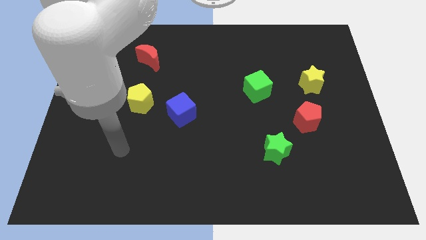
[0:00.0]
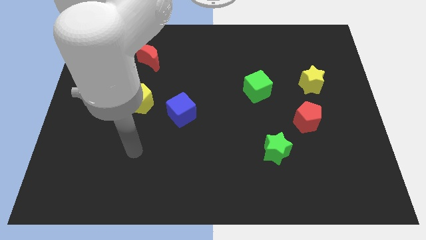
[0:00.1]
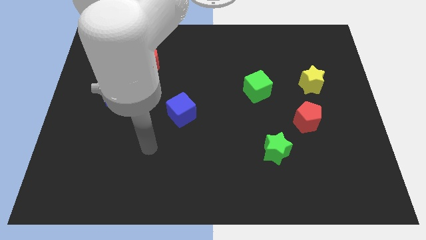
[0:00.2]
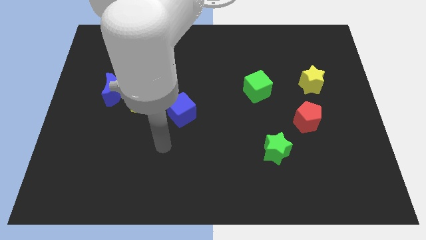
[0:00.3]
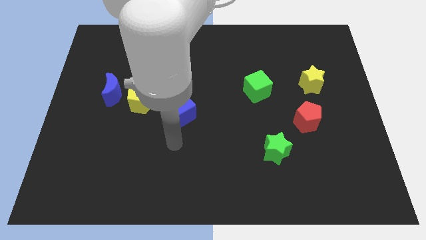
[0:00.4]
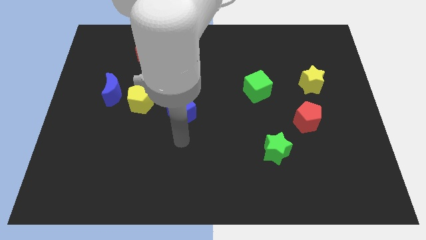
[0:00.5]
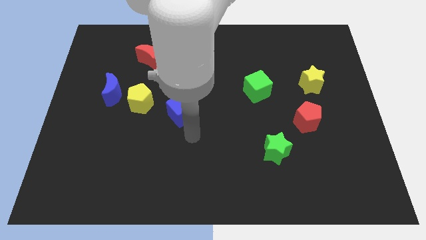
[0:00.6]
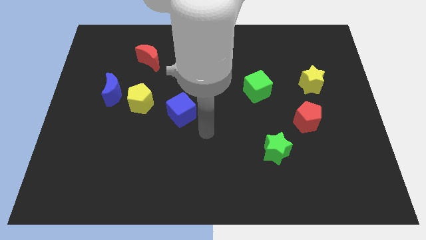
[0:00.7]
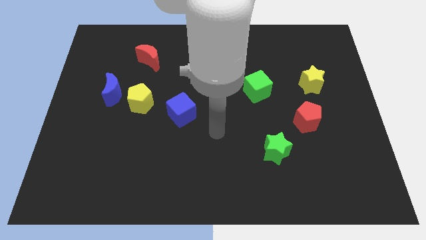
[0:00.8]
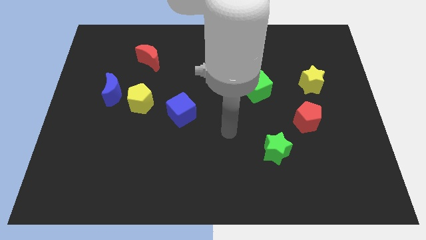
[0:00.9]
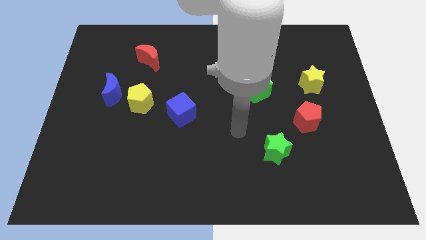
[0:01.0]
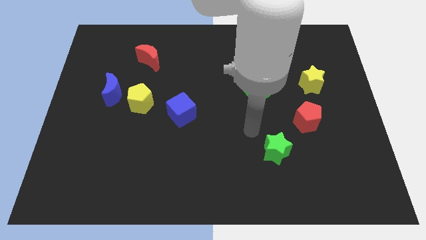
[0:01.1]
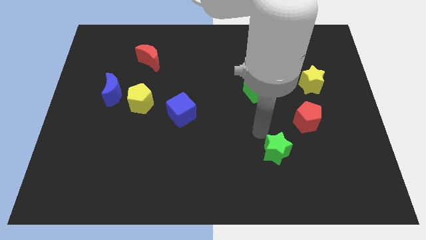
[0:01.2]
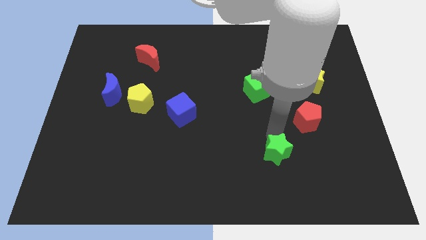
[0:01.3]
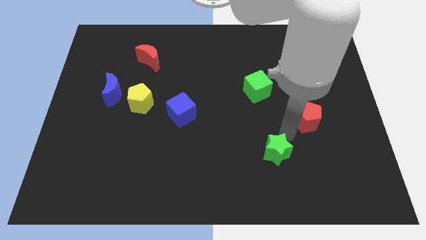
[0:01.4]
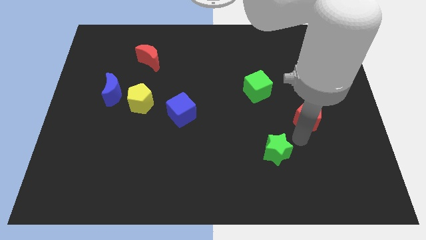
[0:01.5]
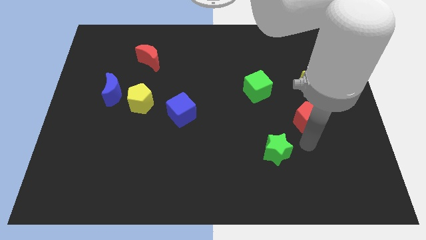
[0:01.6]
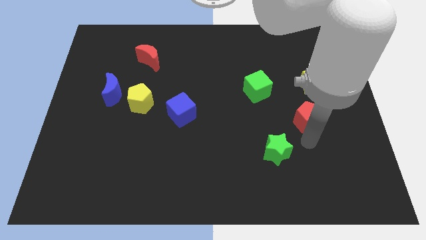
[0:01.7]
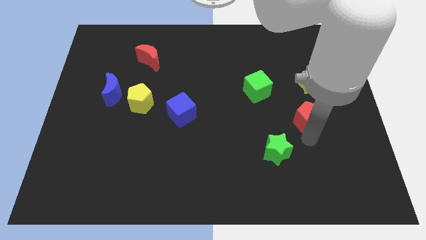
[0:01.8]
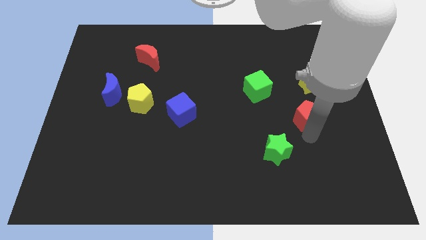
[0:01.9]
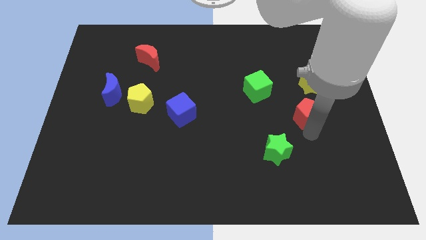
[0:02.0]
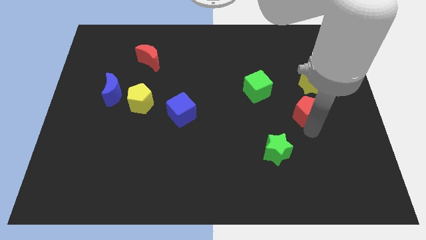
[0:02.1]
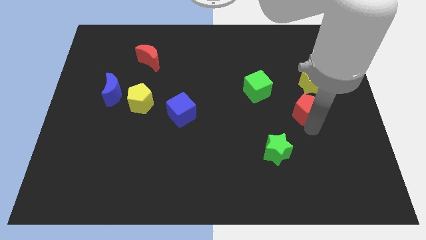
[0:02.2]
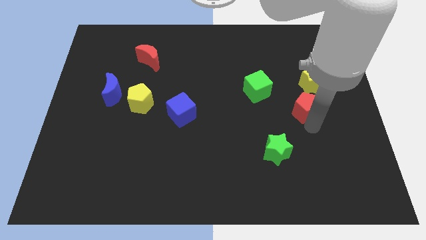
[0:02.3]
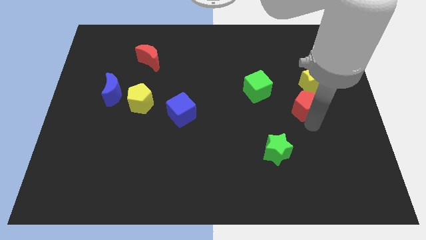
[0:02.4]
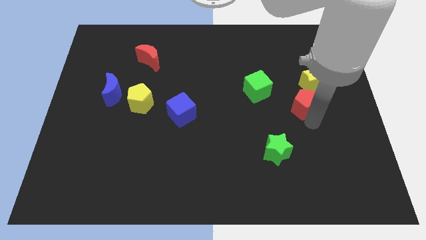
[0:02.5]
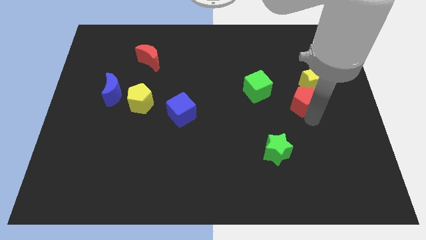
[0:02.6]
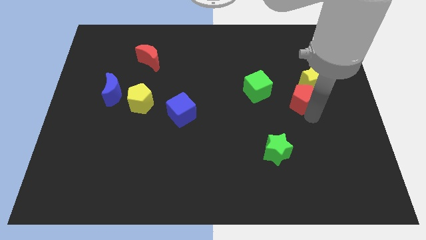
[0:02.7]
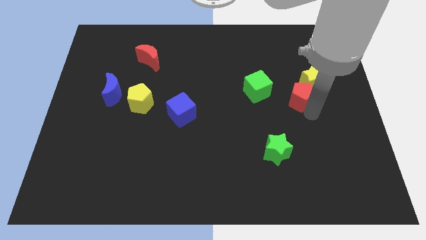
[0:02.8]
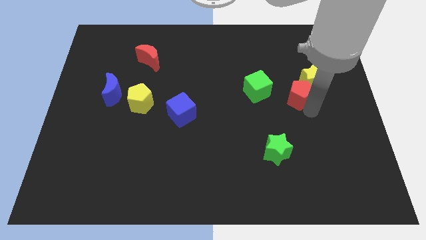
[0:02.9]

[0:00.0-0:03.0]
slightly push the red pentagon upwards

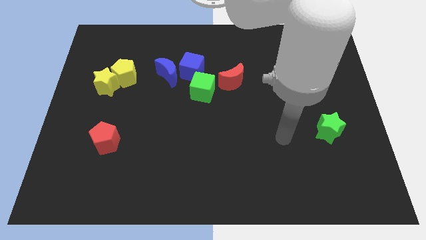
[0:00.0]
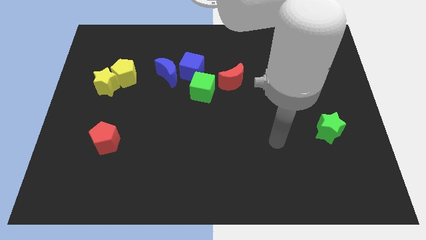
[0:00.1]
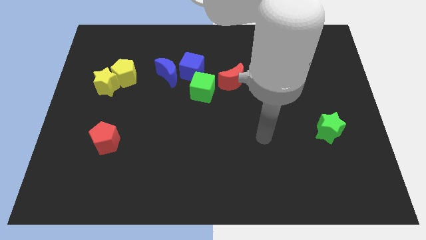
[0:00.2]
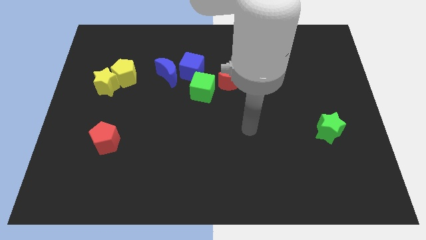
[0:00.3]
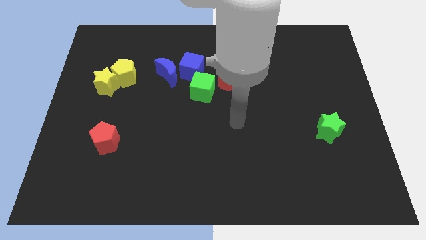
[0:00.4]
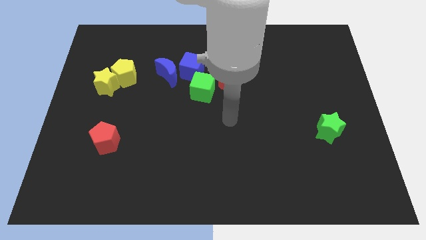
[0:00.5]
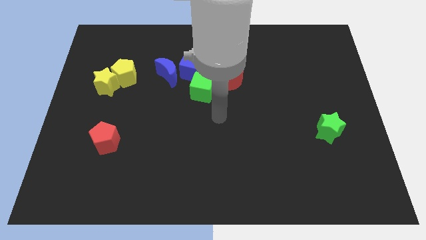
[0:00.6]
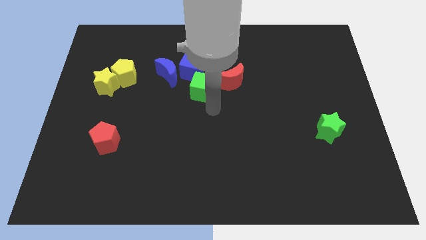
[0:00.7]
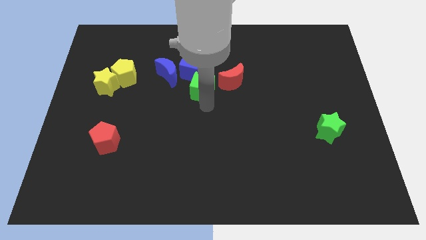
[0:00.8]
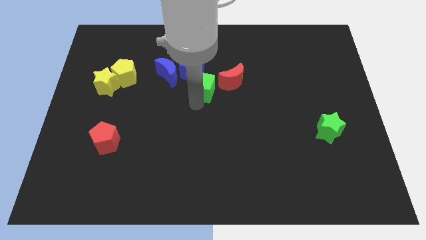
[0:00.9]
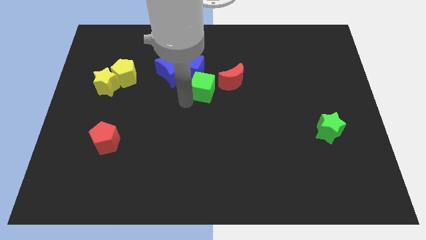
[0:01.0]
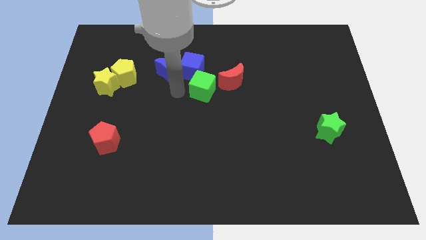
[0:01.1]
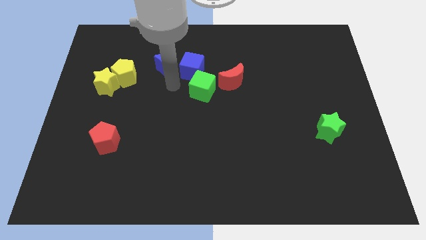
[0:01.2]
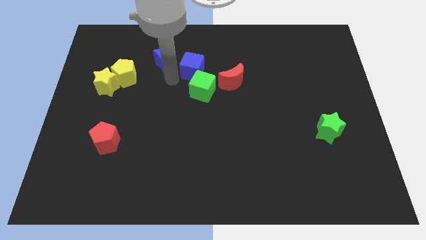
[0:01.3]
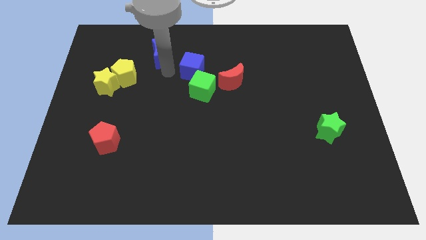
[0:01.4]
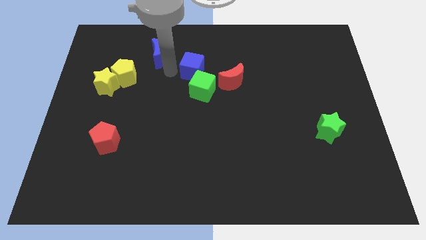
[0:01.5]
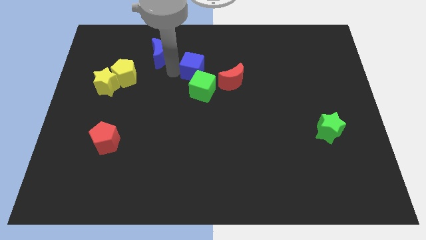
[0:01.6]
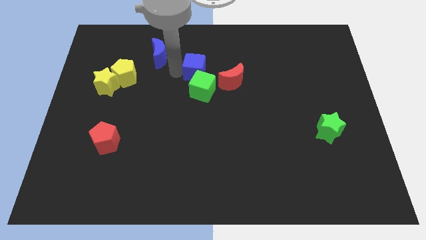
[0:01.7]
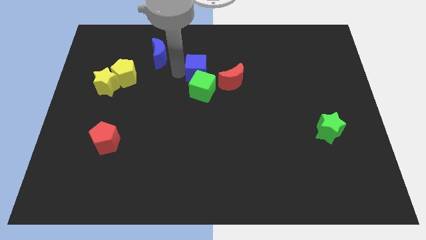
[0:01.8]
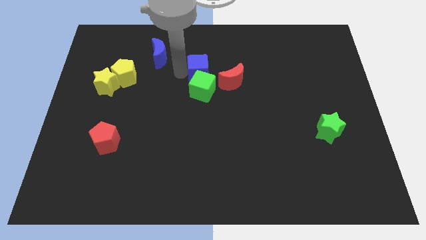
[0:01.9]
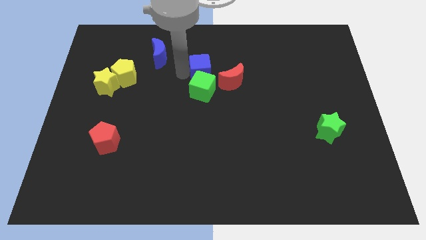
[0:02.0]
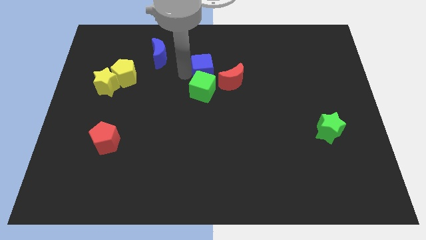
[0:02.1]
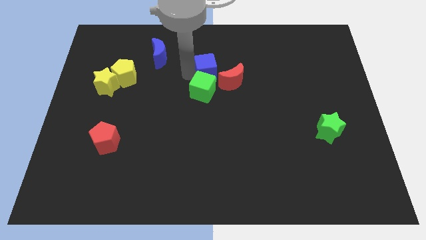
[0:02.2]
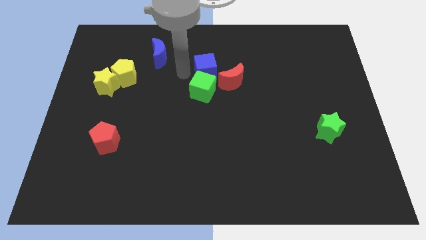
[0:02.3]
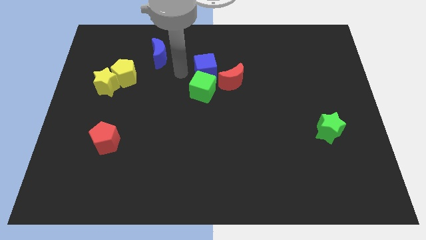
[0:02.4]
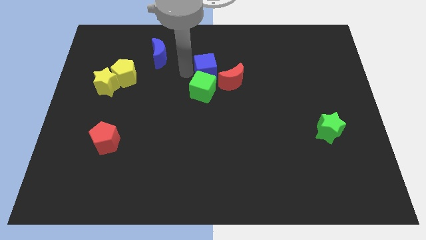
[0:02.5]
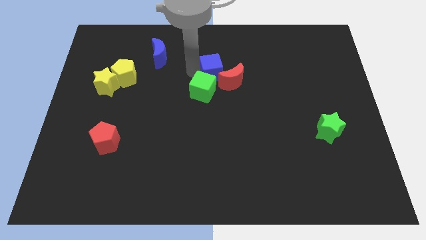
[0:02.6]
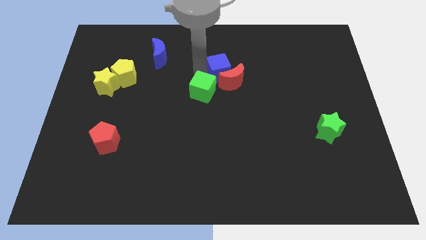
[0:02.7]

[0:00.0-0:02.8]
move the blue cube a little right

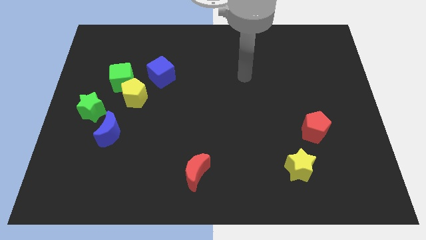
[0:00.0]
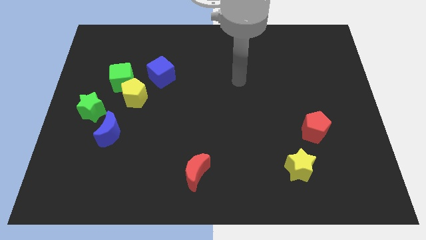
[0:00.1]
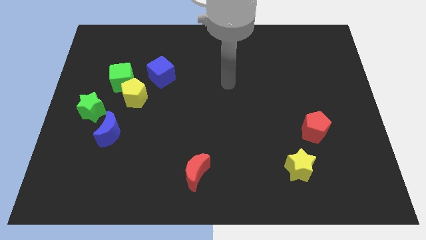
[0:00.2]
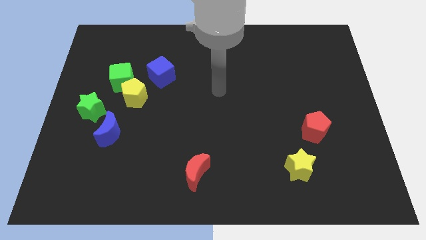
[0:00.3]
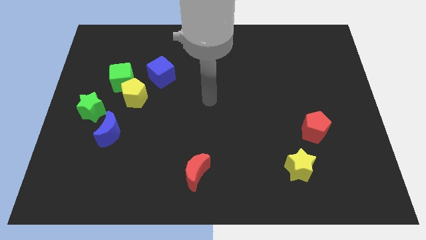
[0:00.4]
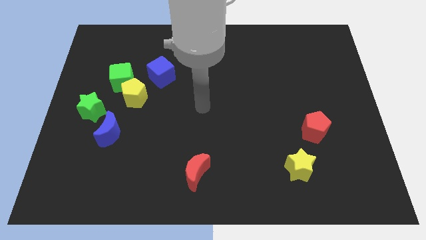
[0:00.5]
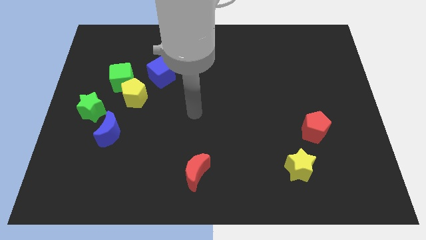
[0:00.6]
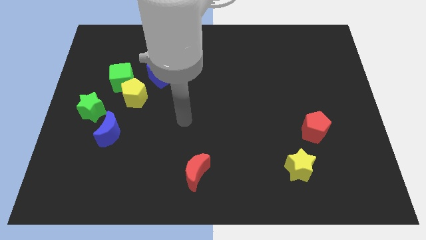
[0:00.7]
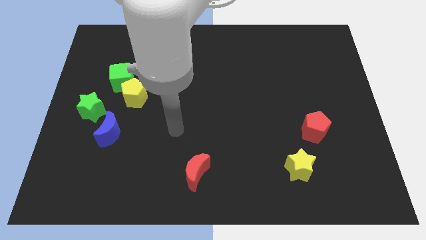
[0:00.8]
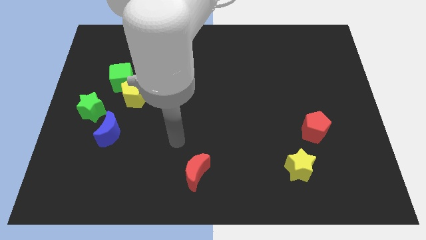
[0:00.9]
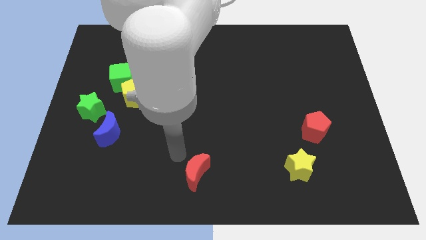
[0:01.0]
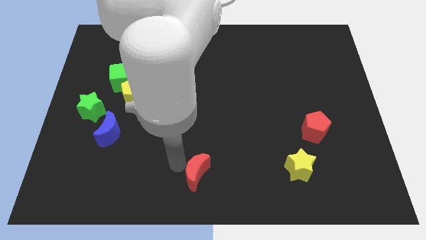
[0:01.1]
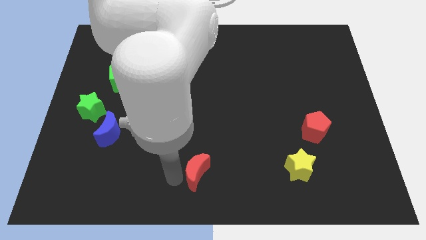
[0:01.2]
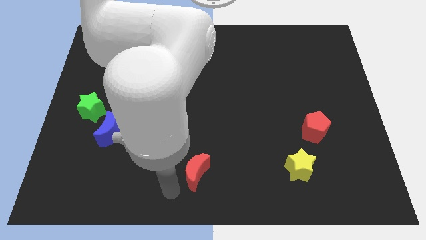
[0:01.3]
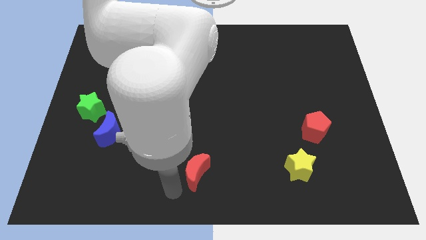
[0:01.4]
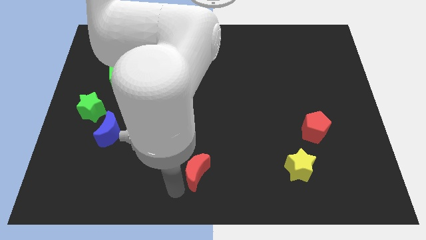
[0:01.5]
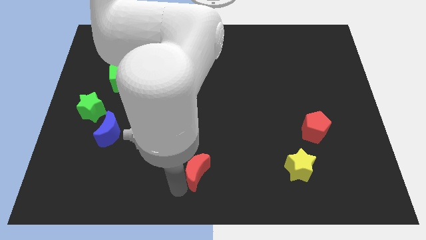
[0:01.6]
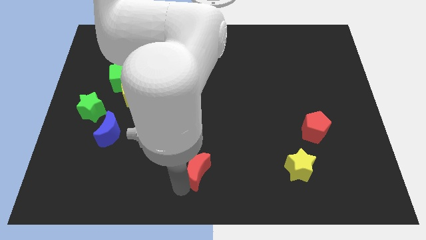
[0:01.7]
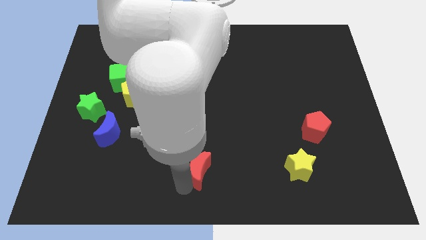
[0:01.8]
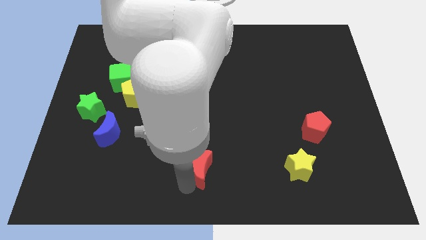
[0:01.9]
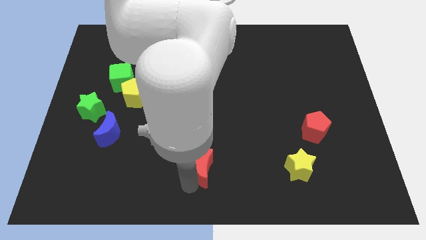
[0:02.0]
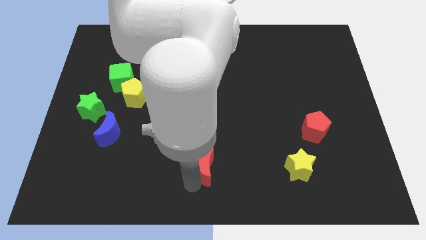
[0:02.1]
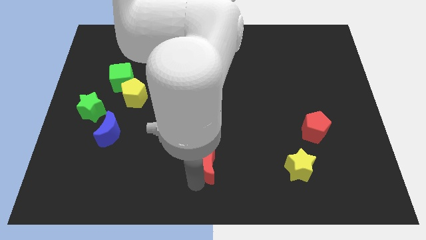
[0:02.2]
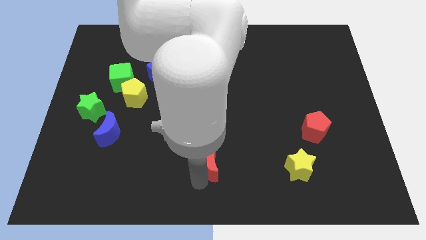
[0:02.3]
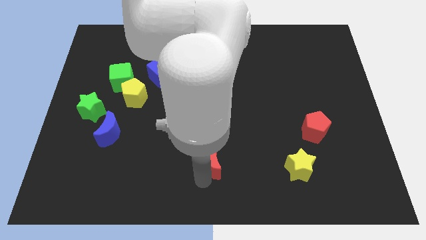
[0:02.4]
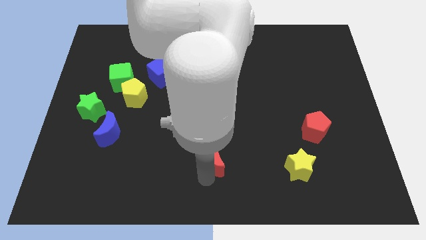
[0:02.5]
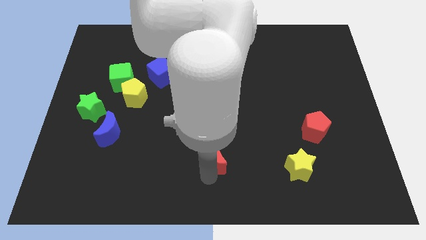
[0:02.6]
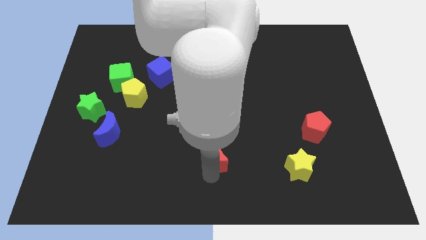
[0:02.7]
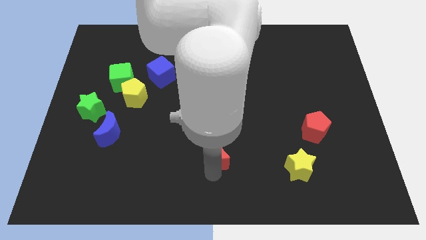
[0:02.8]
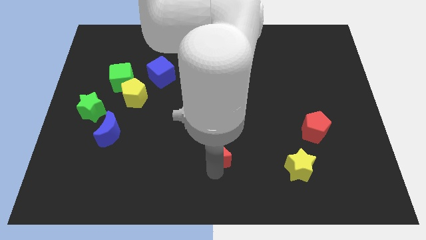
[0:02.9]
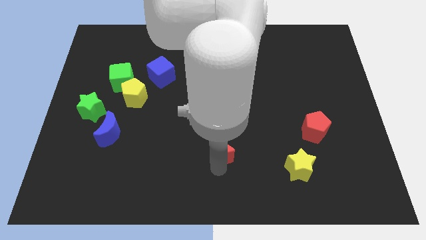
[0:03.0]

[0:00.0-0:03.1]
move the red moon diagonally up and to the right a little bit
